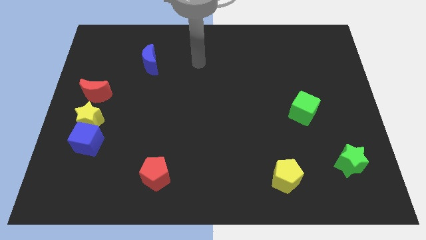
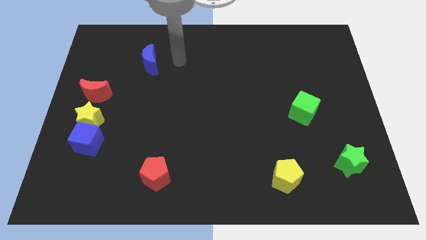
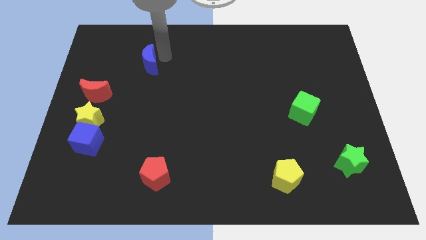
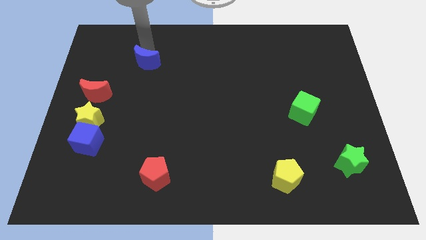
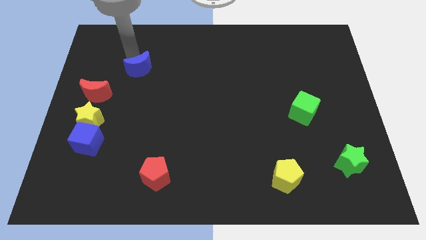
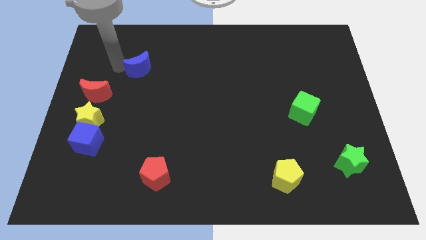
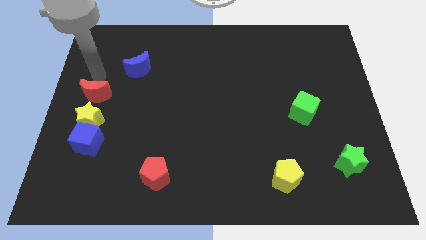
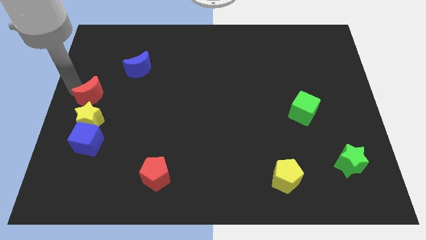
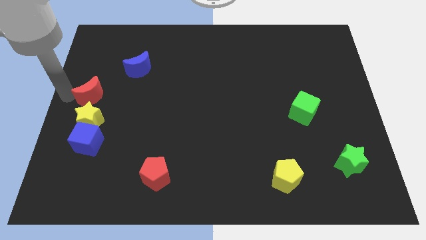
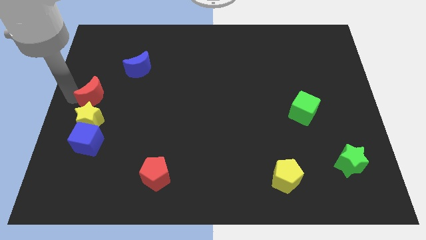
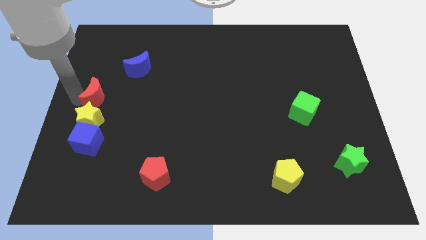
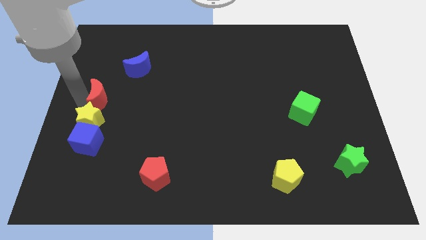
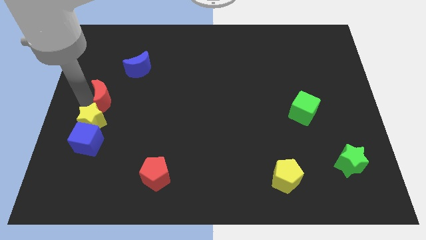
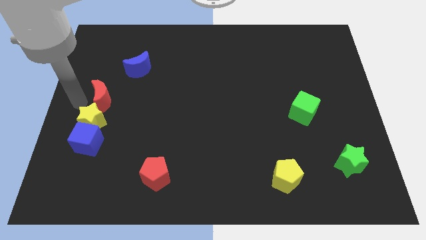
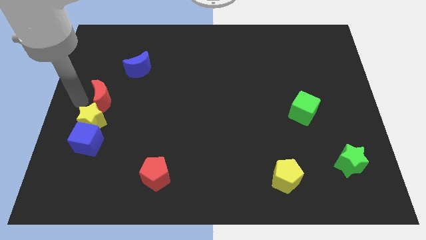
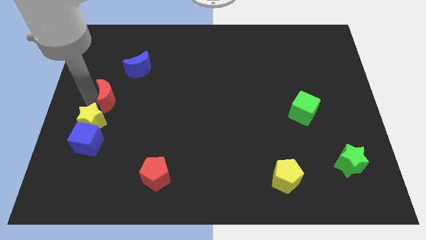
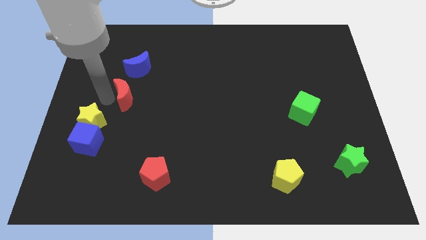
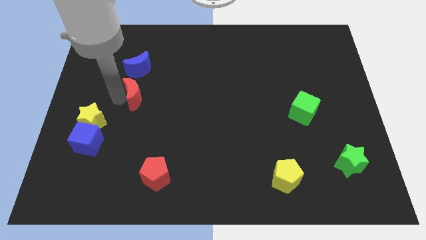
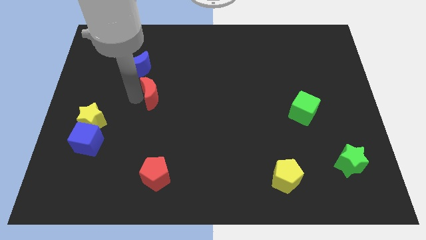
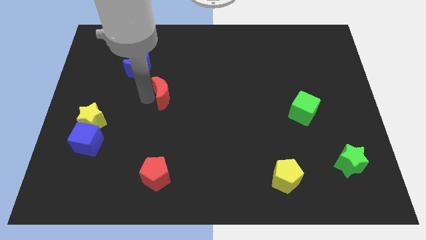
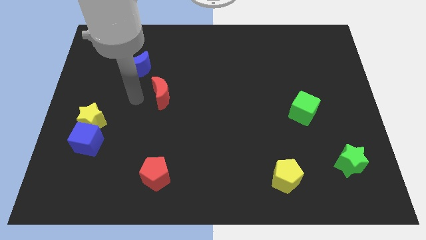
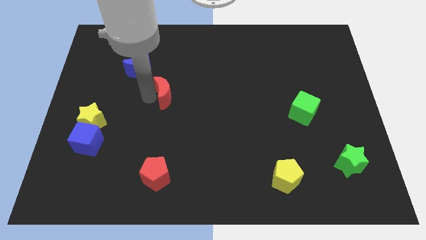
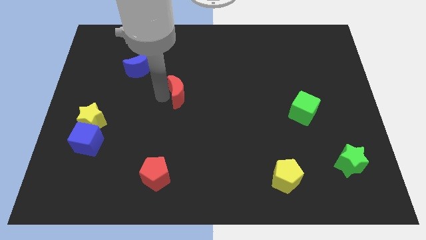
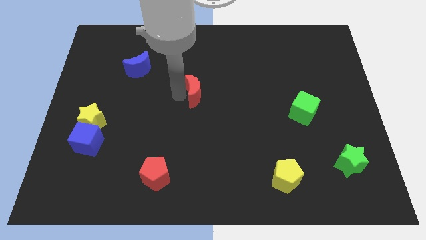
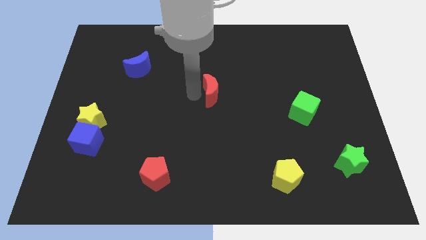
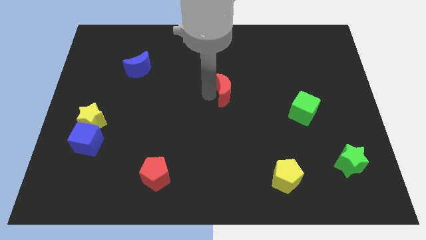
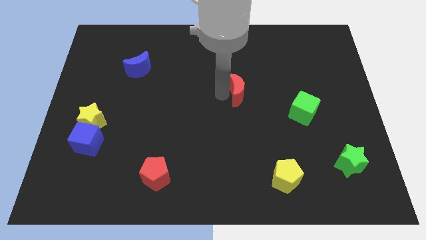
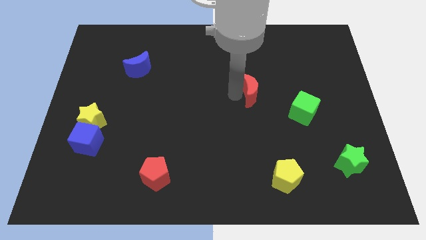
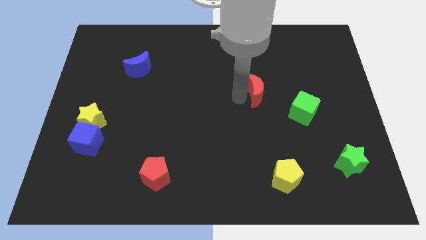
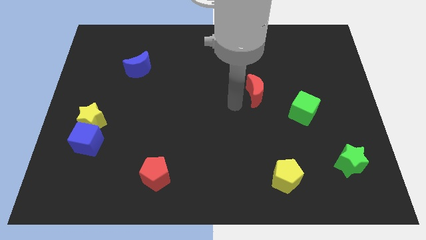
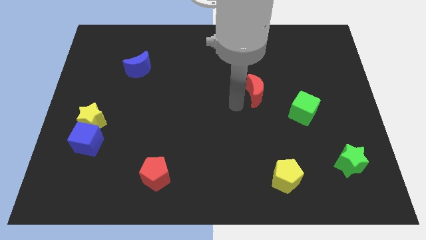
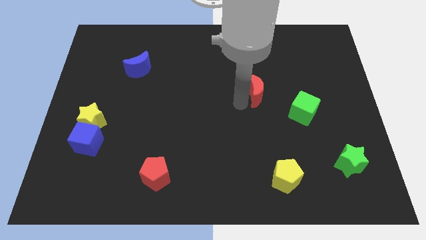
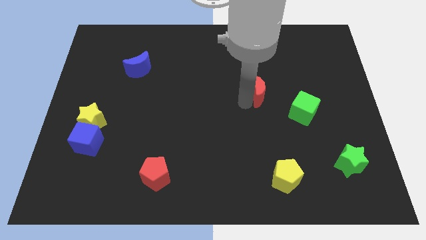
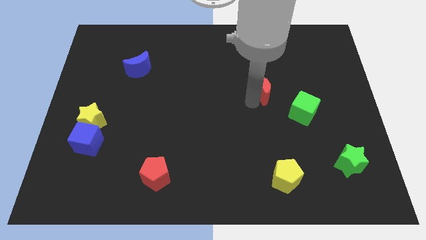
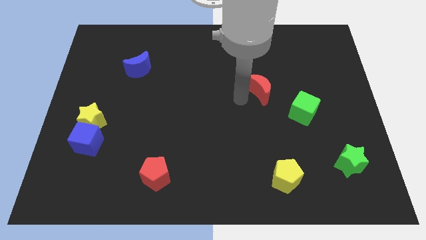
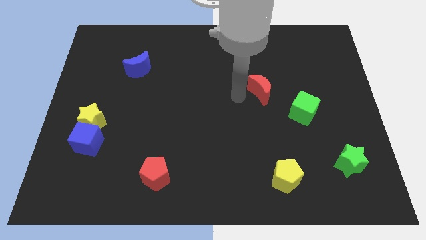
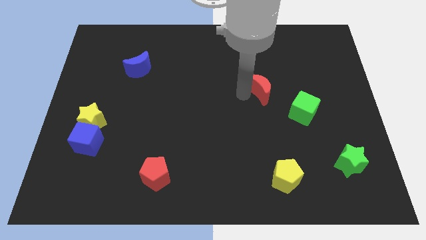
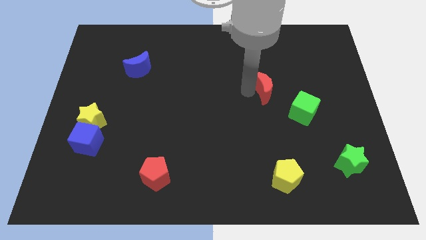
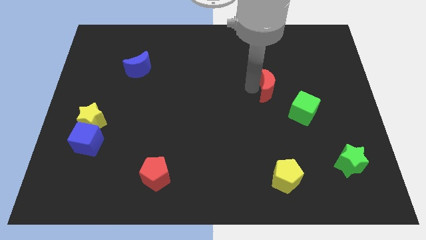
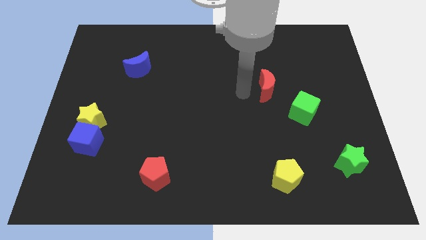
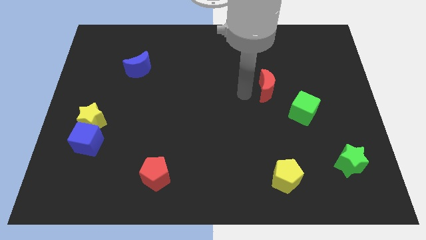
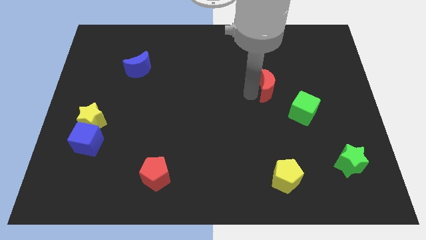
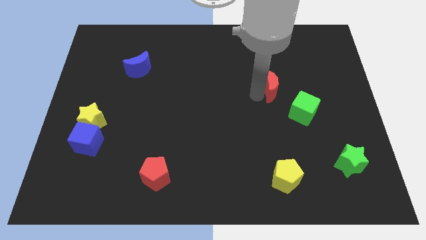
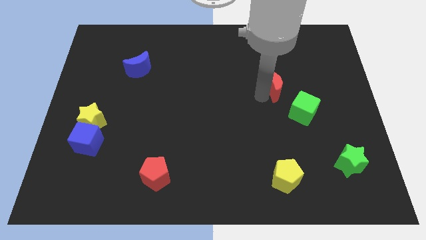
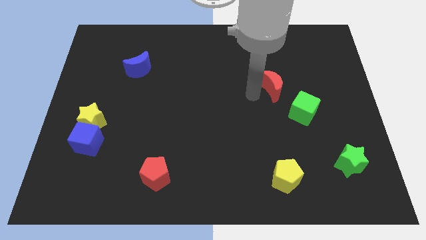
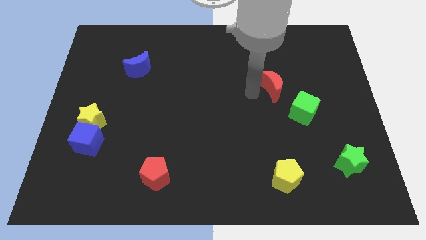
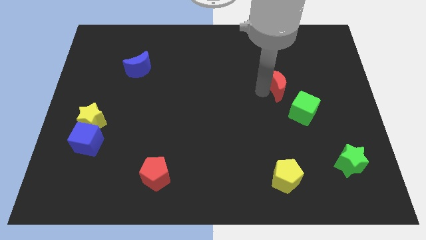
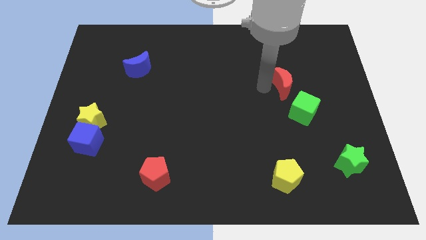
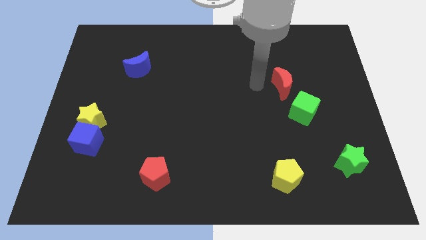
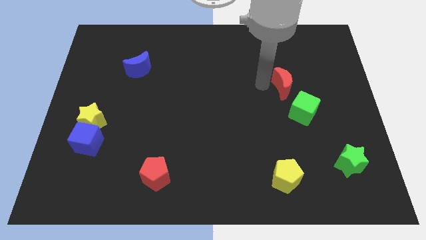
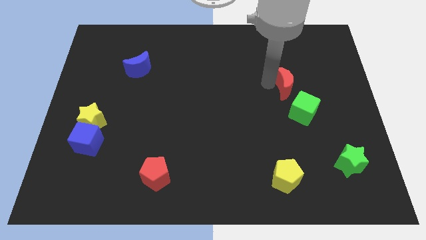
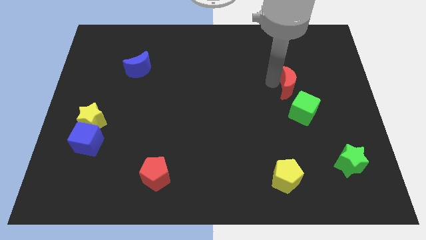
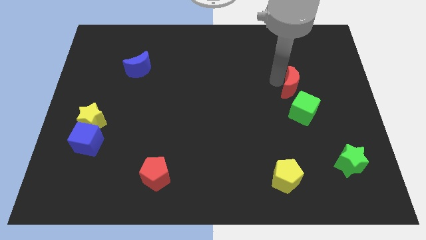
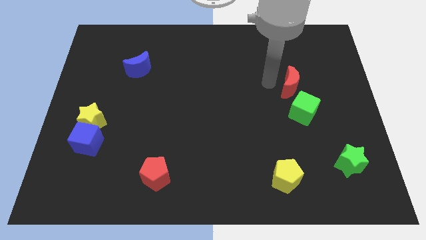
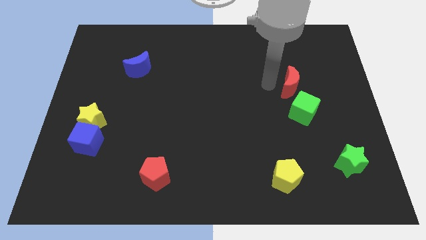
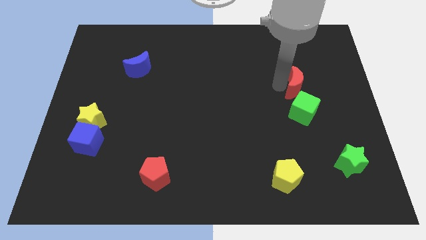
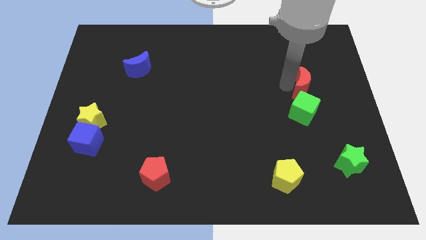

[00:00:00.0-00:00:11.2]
push the red moon to the top right of the green cube

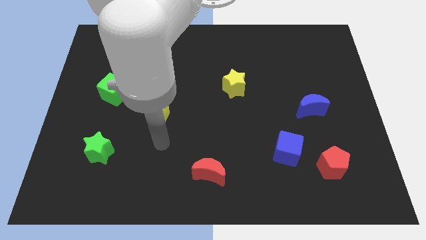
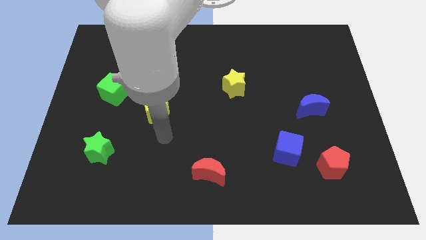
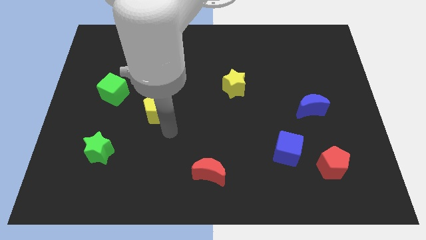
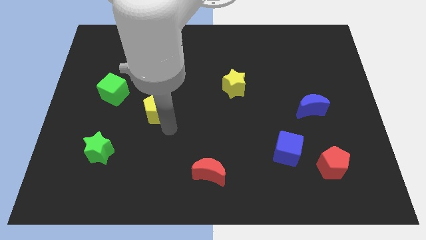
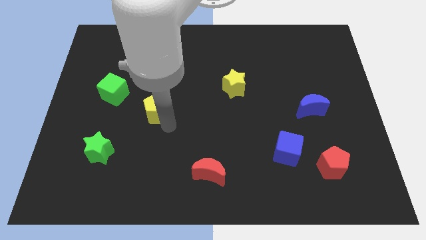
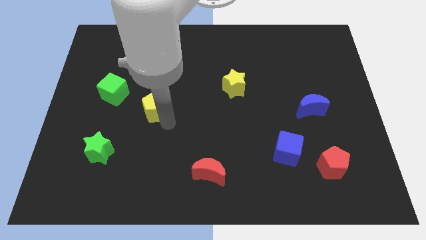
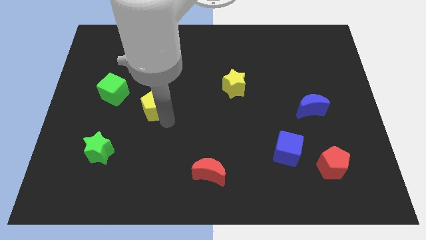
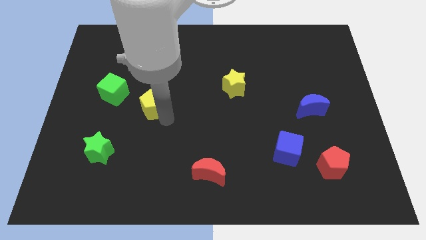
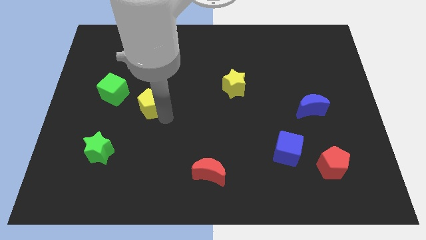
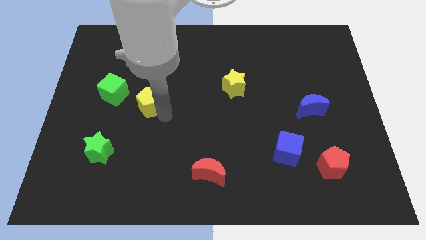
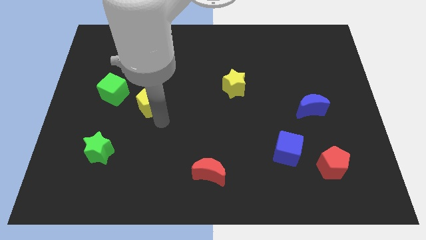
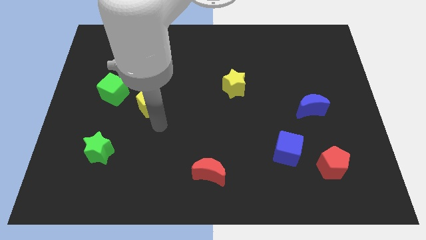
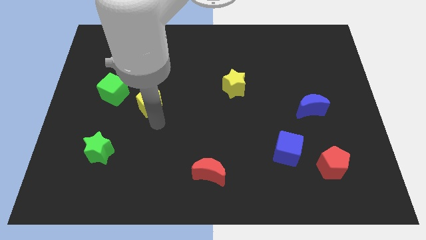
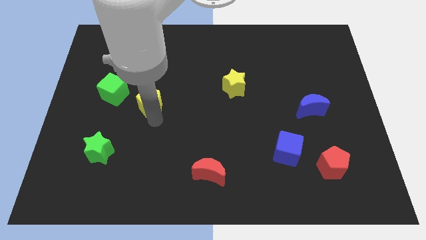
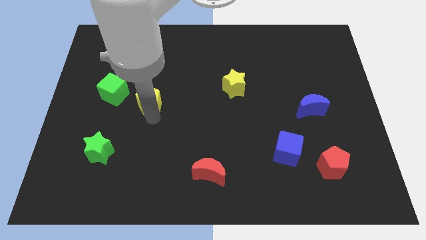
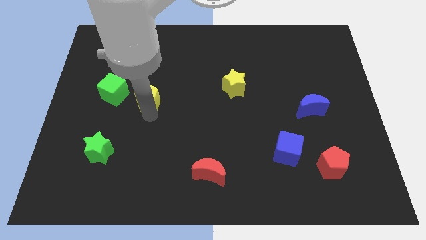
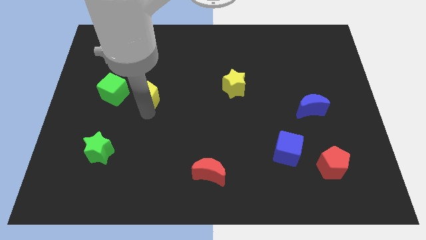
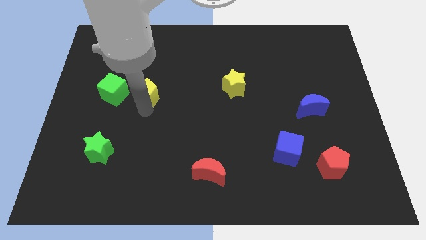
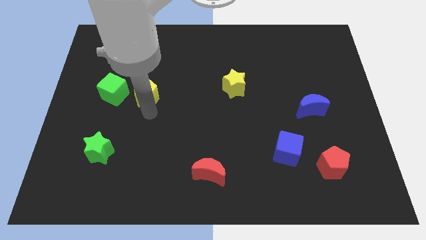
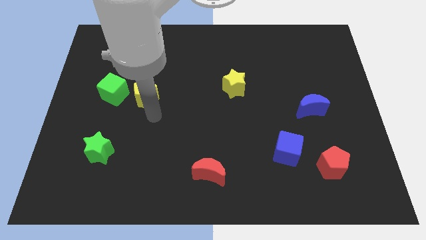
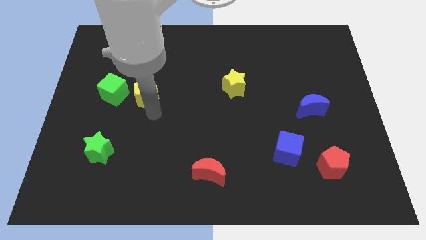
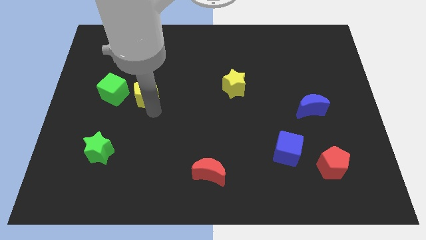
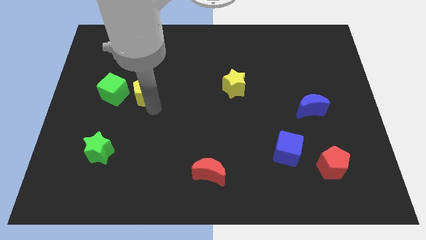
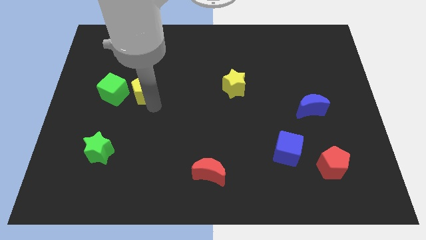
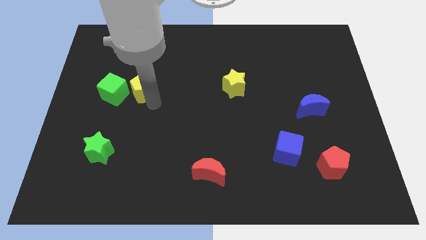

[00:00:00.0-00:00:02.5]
move the yellow pentagon diagonally up and to the right of the green cube
